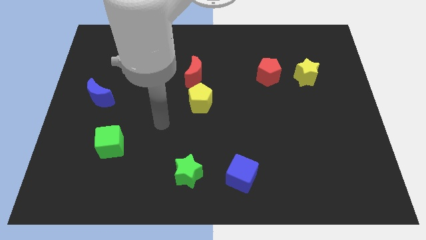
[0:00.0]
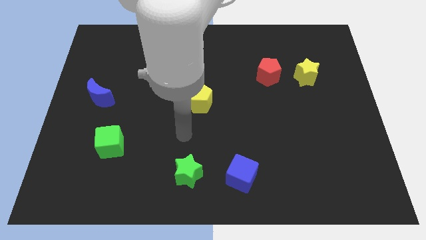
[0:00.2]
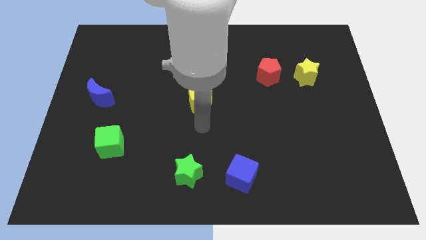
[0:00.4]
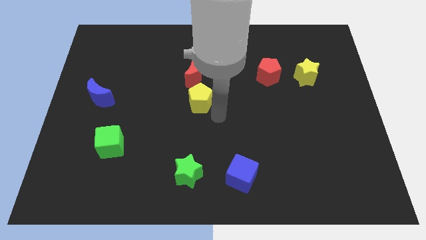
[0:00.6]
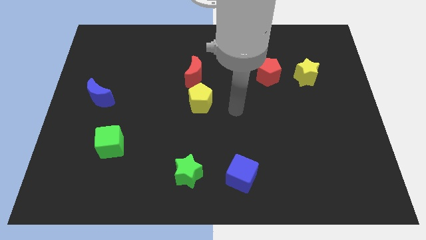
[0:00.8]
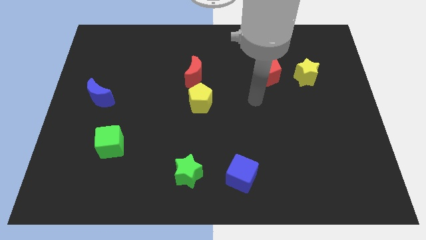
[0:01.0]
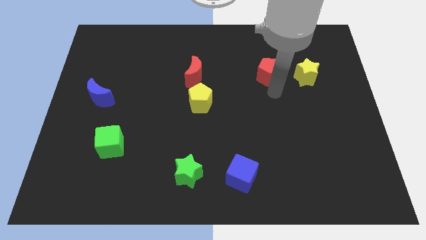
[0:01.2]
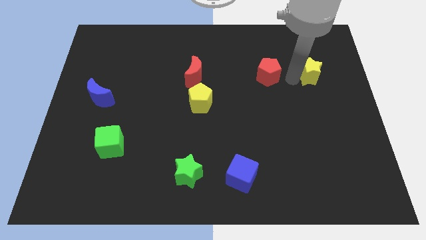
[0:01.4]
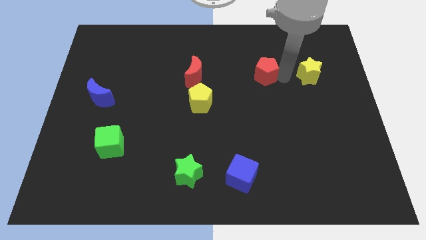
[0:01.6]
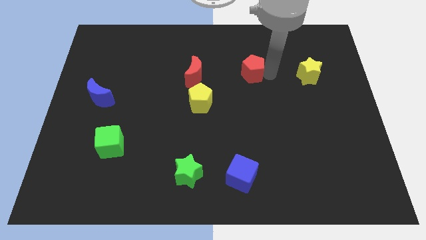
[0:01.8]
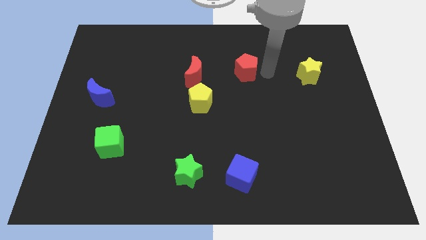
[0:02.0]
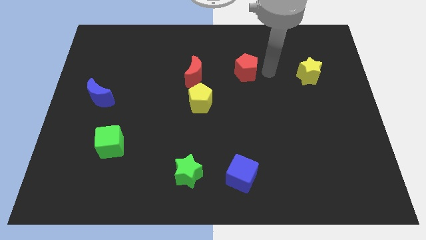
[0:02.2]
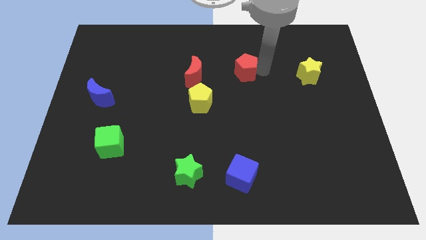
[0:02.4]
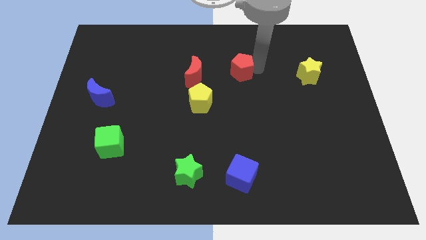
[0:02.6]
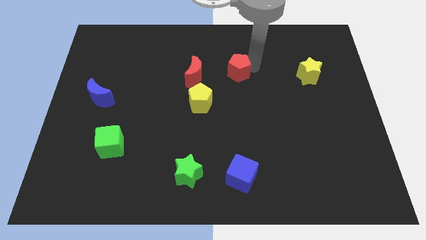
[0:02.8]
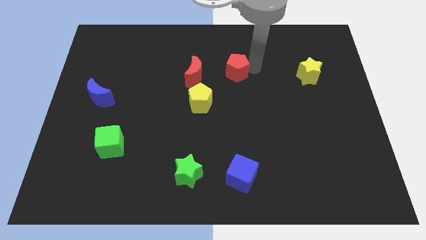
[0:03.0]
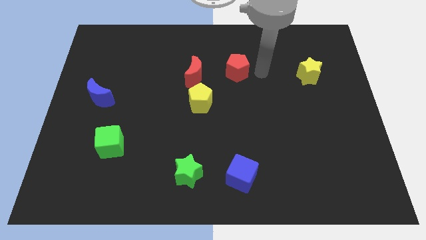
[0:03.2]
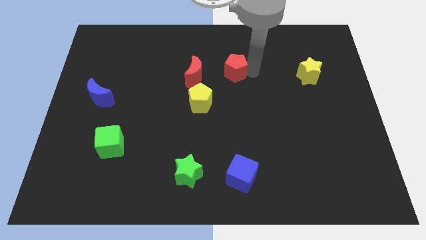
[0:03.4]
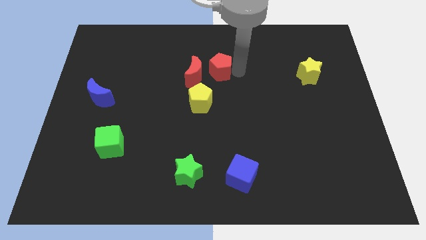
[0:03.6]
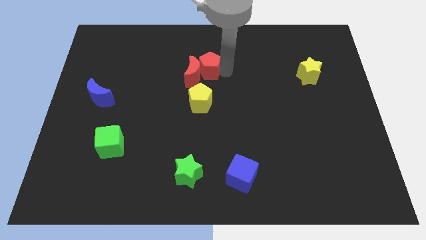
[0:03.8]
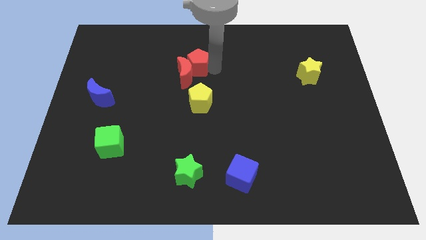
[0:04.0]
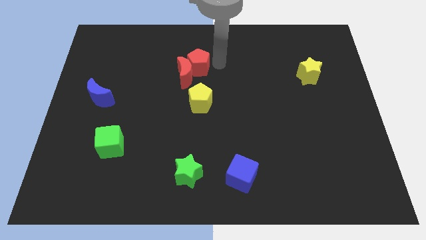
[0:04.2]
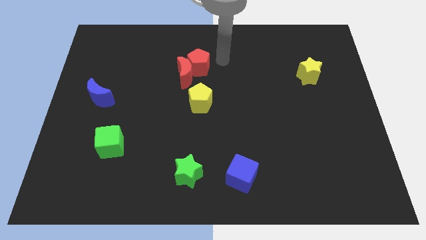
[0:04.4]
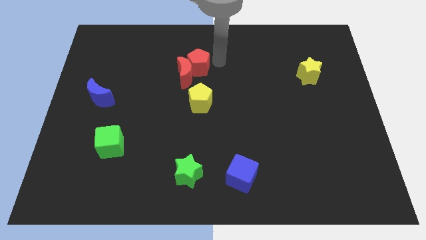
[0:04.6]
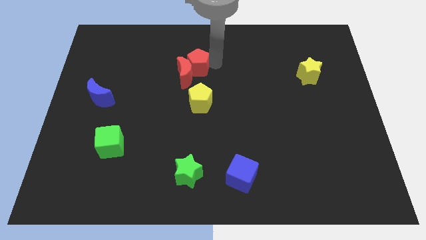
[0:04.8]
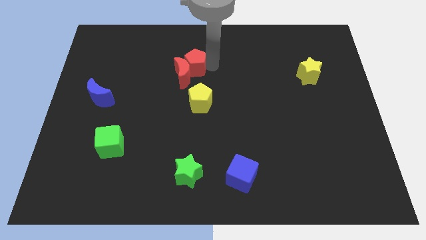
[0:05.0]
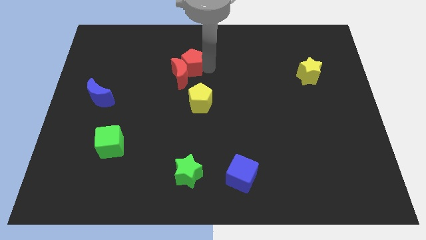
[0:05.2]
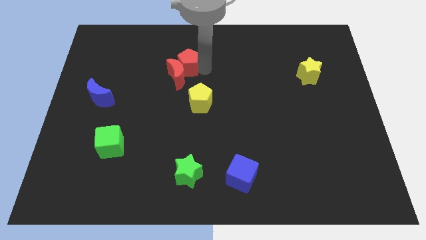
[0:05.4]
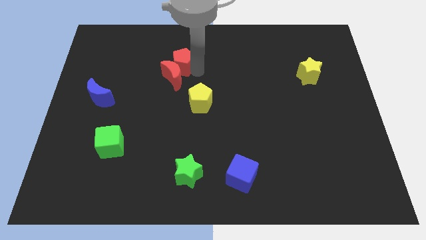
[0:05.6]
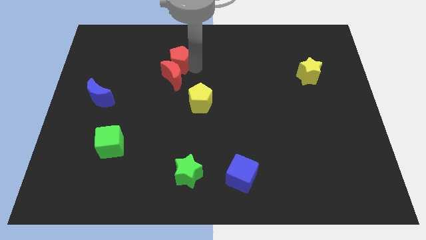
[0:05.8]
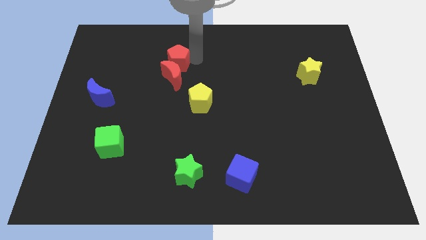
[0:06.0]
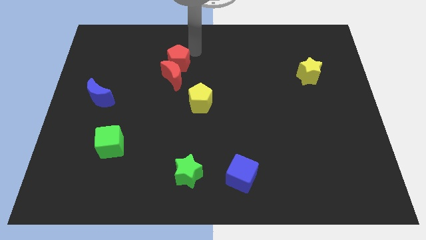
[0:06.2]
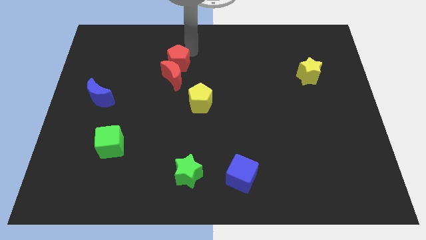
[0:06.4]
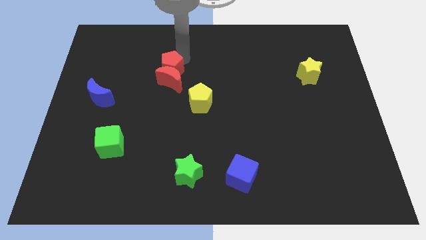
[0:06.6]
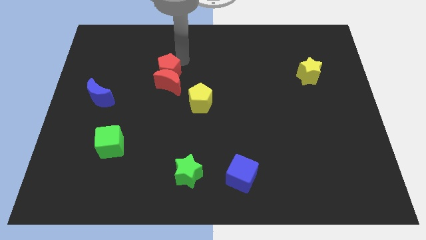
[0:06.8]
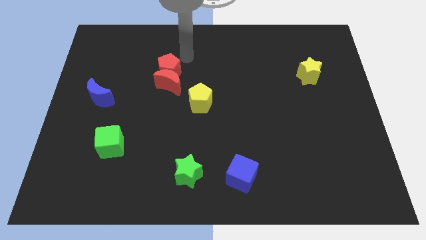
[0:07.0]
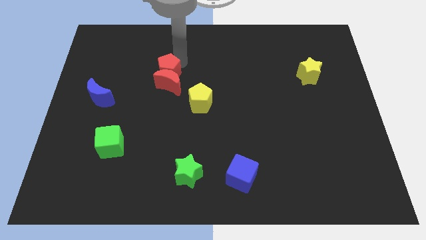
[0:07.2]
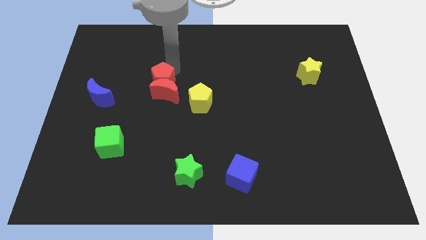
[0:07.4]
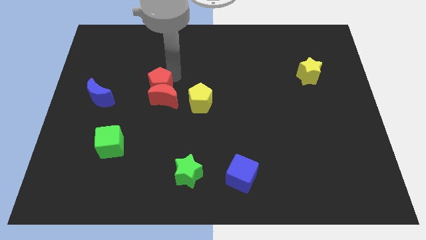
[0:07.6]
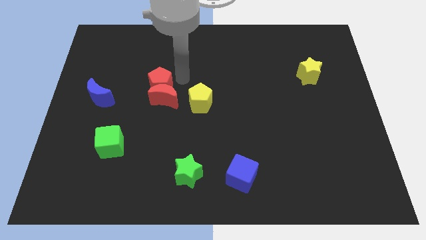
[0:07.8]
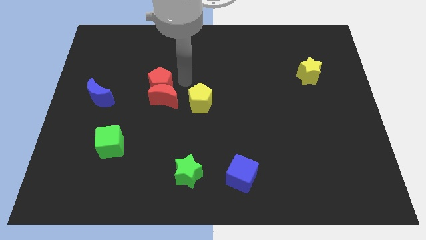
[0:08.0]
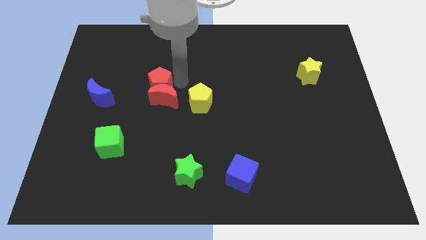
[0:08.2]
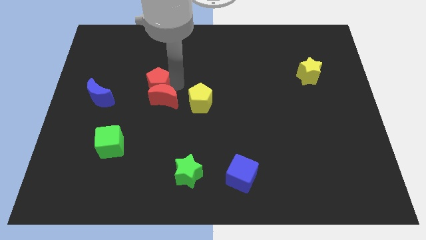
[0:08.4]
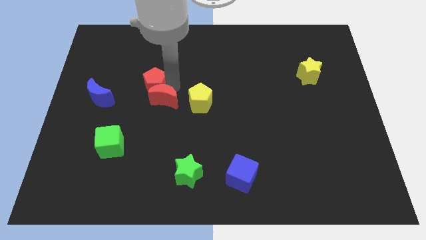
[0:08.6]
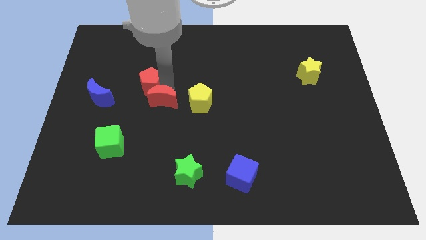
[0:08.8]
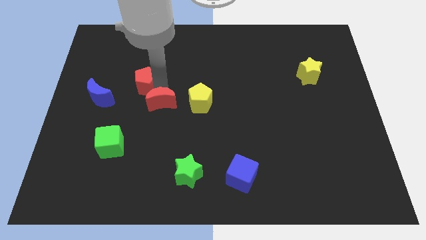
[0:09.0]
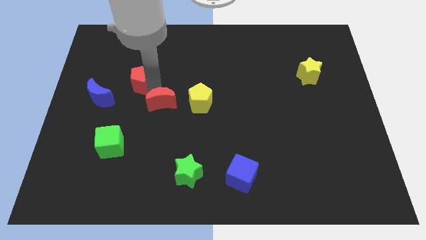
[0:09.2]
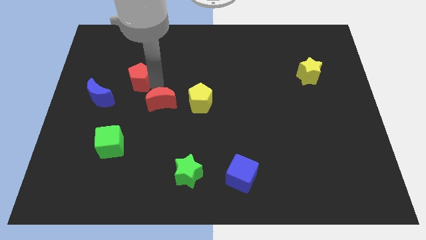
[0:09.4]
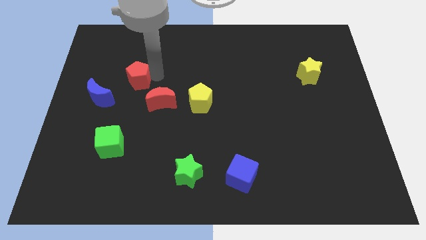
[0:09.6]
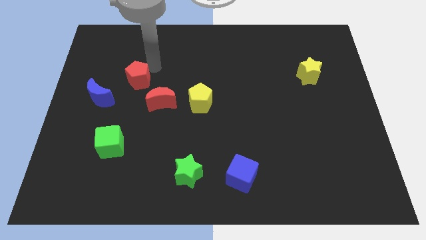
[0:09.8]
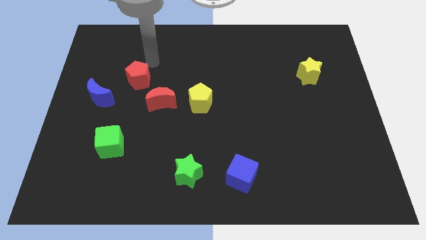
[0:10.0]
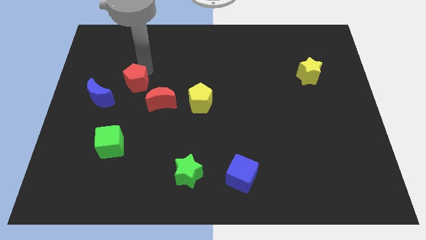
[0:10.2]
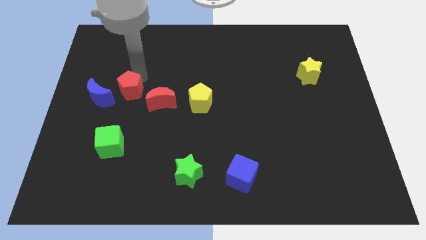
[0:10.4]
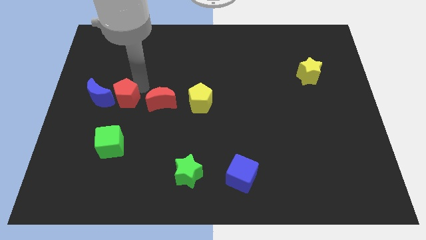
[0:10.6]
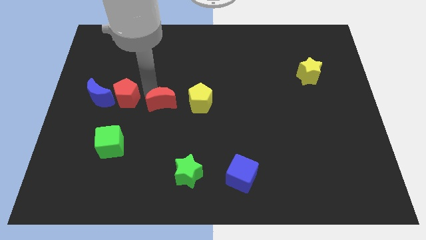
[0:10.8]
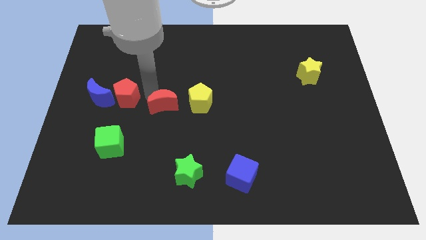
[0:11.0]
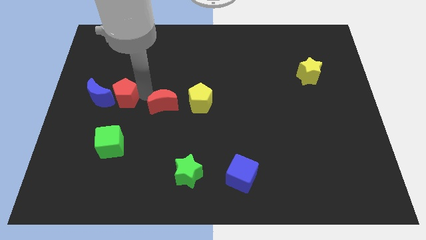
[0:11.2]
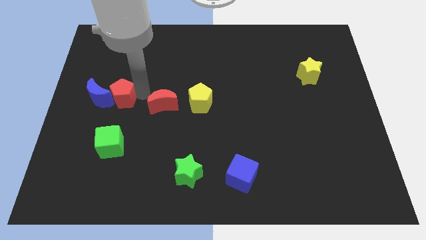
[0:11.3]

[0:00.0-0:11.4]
slide the red pentagon next to the blue moon

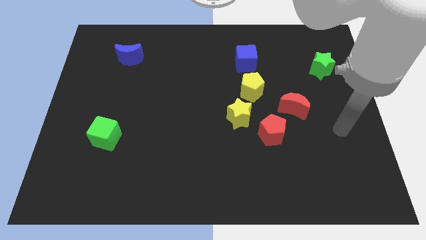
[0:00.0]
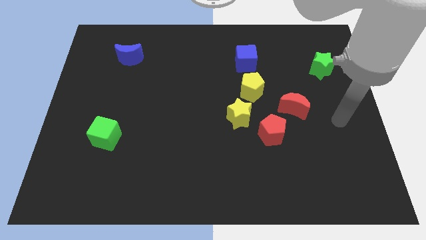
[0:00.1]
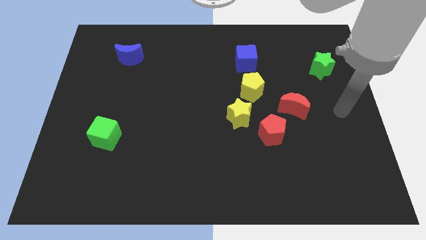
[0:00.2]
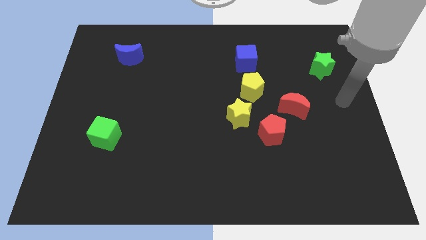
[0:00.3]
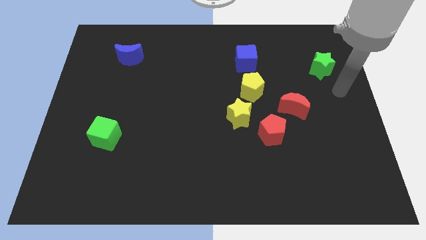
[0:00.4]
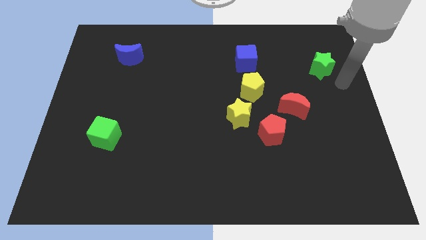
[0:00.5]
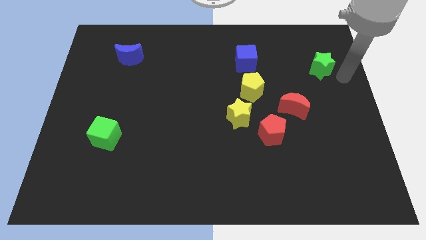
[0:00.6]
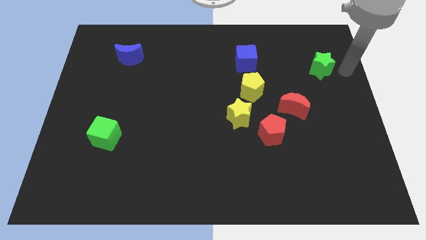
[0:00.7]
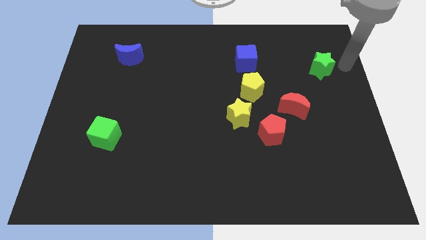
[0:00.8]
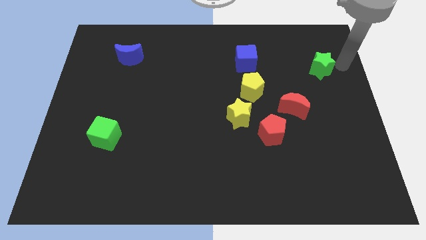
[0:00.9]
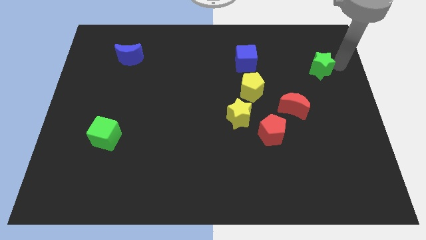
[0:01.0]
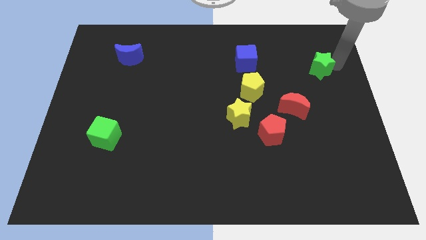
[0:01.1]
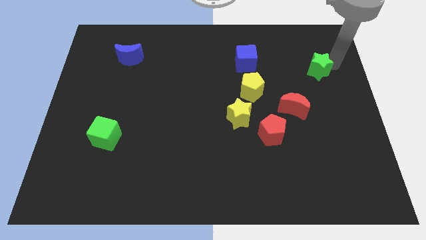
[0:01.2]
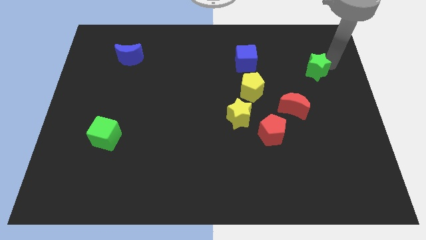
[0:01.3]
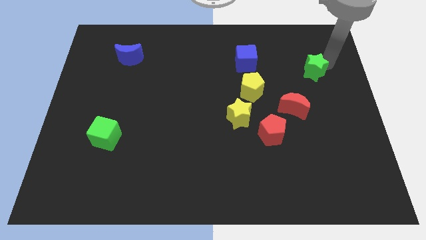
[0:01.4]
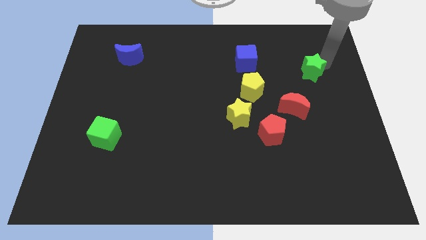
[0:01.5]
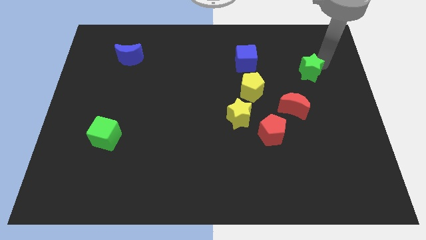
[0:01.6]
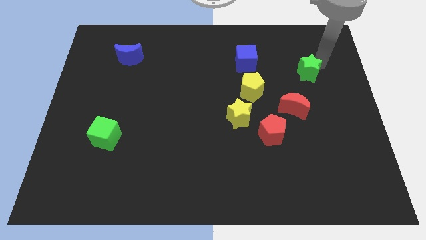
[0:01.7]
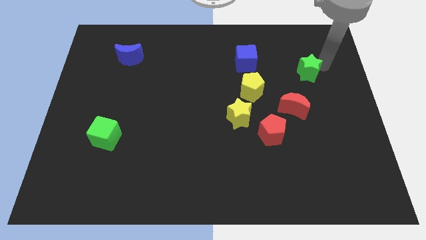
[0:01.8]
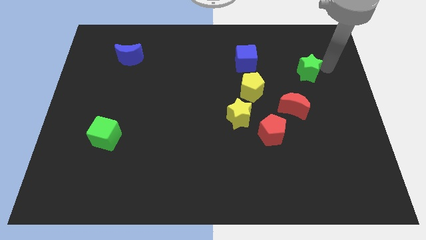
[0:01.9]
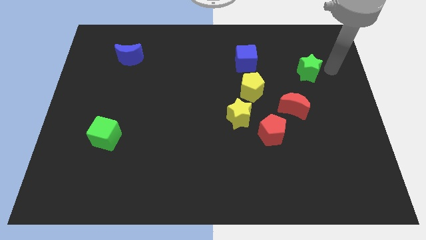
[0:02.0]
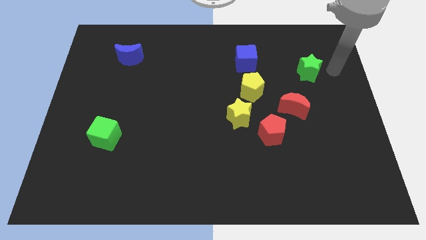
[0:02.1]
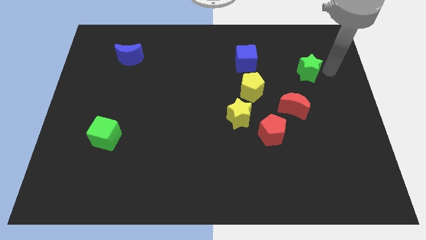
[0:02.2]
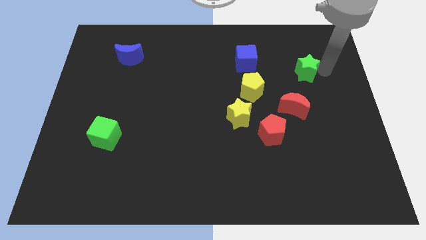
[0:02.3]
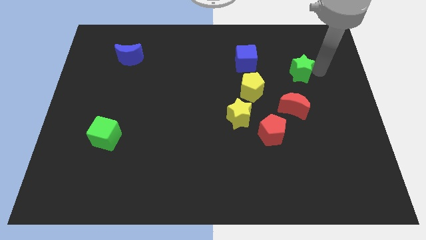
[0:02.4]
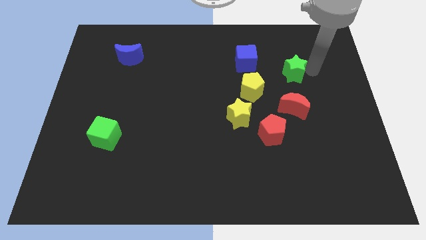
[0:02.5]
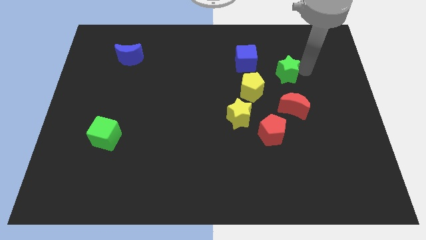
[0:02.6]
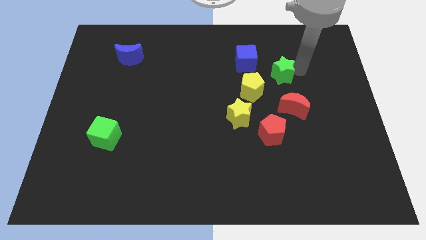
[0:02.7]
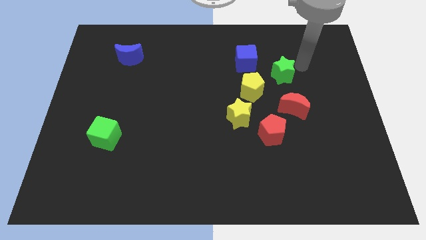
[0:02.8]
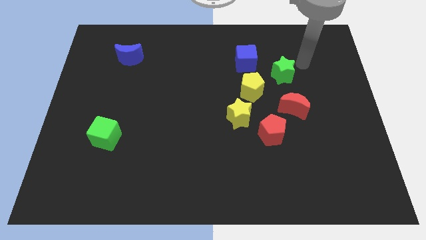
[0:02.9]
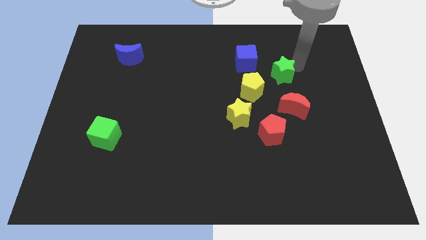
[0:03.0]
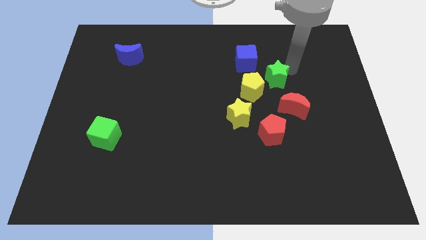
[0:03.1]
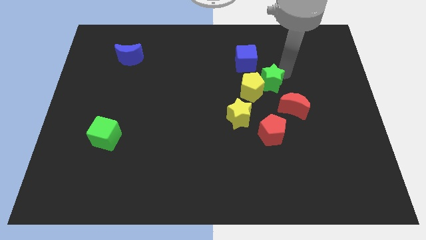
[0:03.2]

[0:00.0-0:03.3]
slide the green star next to the yellow pentagon
